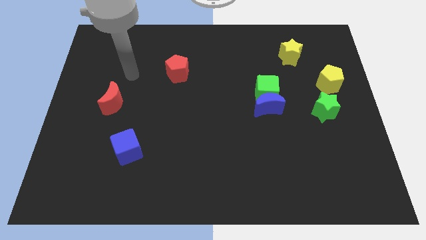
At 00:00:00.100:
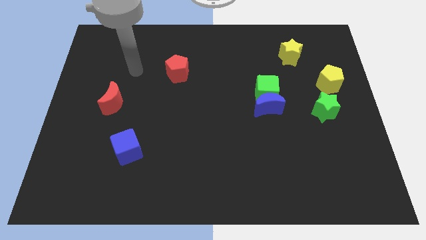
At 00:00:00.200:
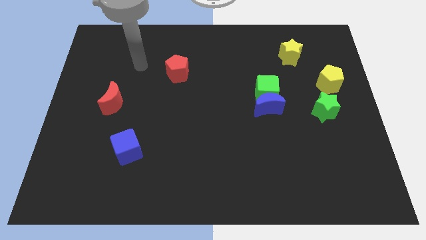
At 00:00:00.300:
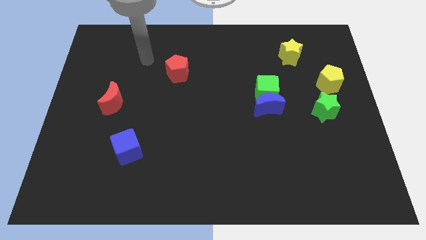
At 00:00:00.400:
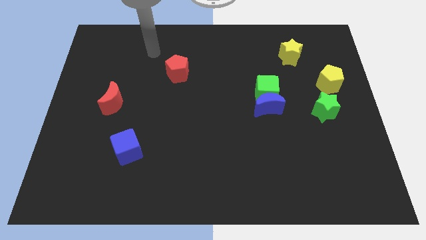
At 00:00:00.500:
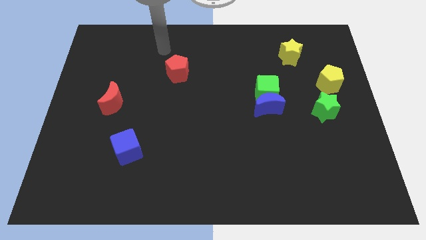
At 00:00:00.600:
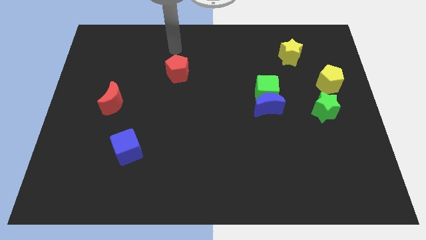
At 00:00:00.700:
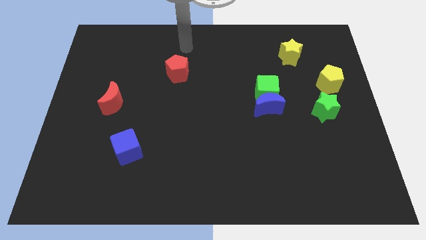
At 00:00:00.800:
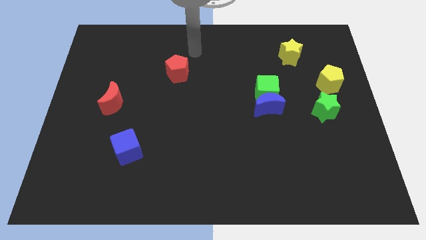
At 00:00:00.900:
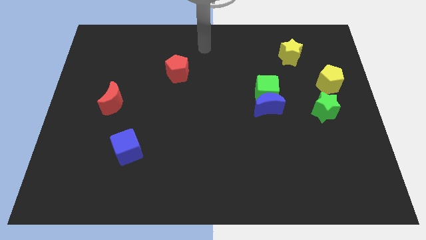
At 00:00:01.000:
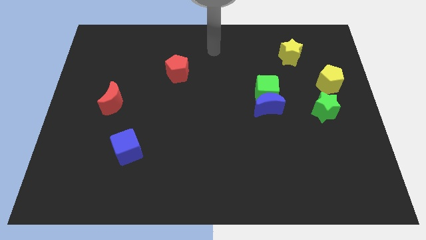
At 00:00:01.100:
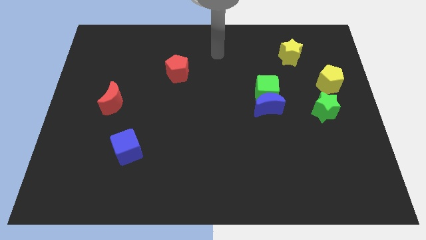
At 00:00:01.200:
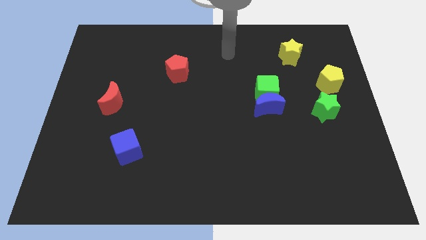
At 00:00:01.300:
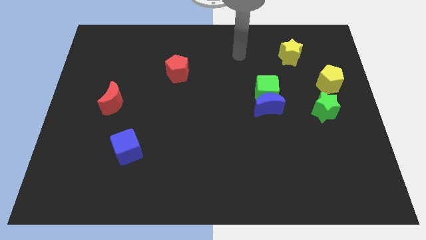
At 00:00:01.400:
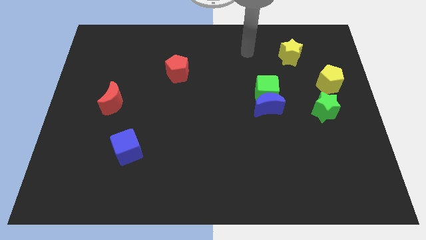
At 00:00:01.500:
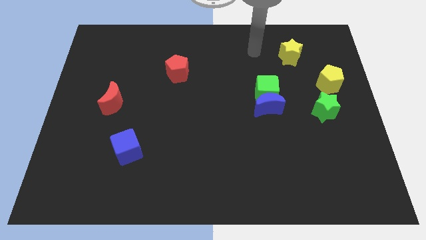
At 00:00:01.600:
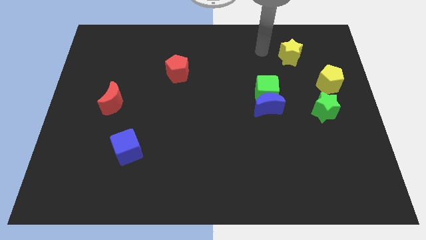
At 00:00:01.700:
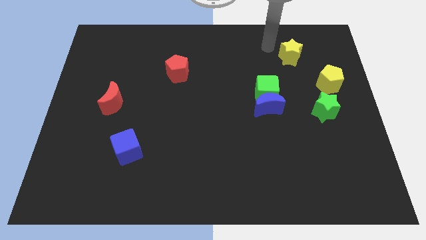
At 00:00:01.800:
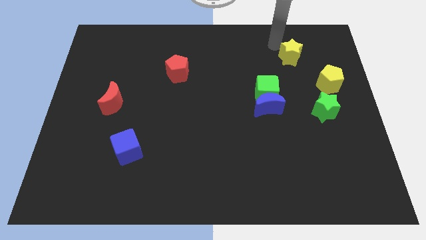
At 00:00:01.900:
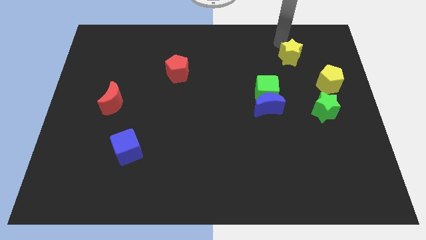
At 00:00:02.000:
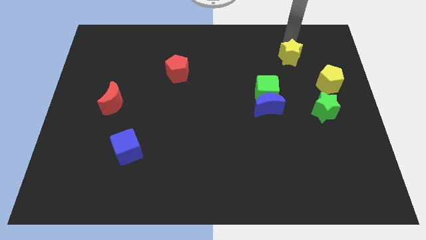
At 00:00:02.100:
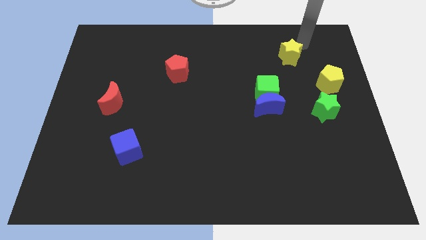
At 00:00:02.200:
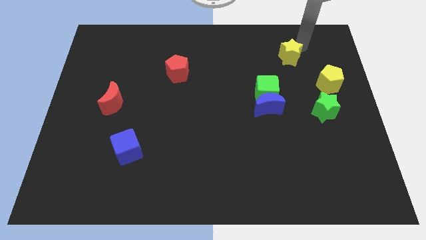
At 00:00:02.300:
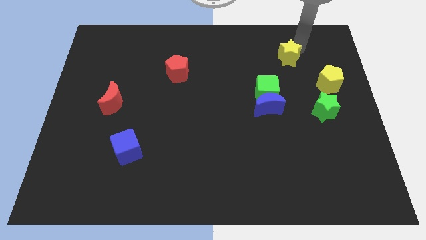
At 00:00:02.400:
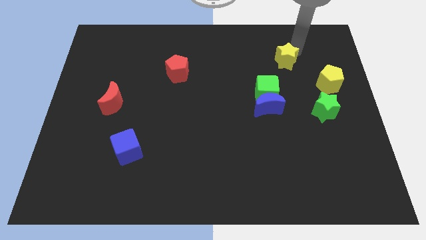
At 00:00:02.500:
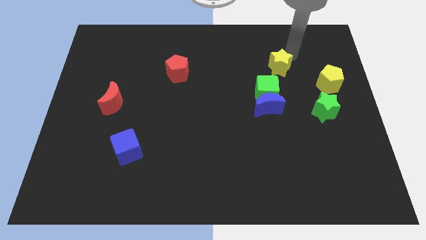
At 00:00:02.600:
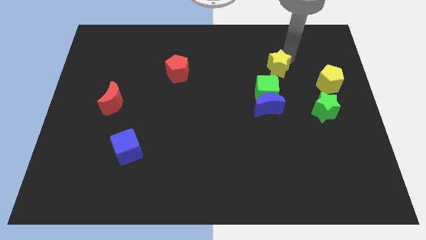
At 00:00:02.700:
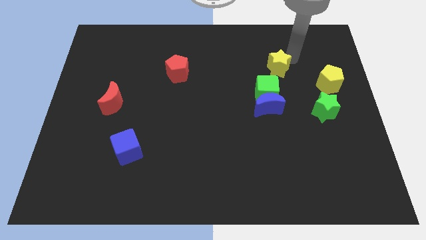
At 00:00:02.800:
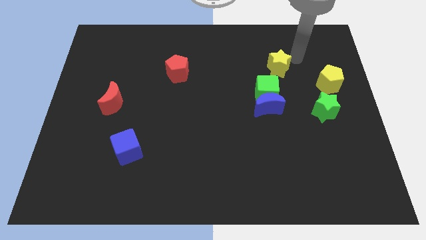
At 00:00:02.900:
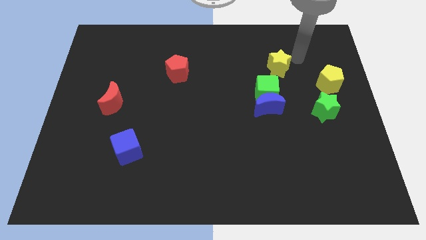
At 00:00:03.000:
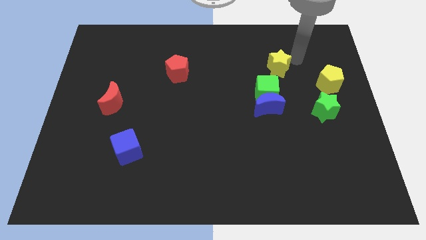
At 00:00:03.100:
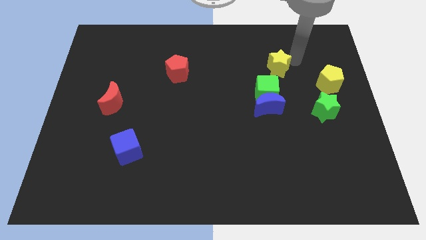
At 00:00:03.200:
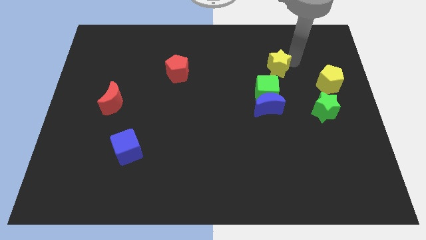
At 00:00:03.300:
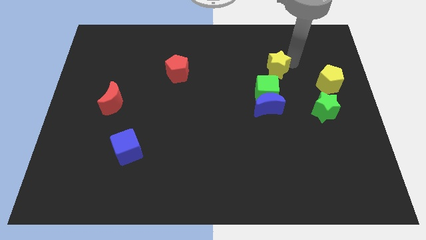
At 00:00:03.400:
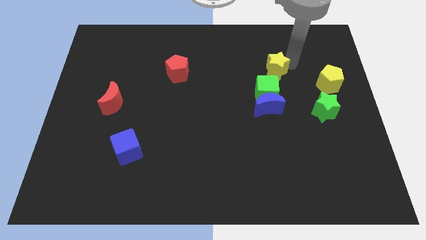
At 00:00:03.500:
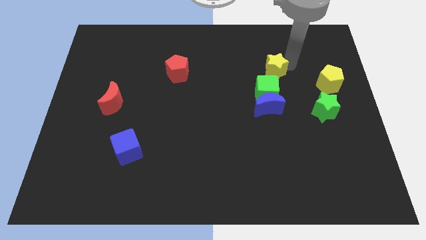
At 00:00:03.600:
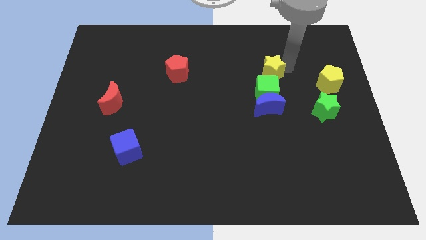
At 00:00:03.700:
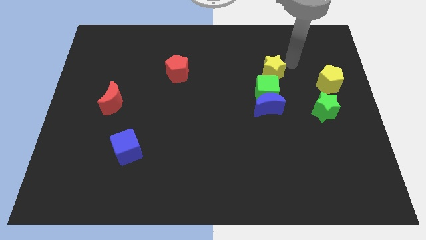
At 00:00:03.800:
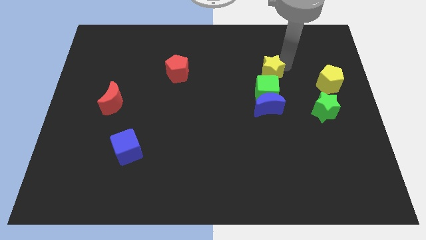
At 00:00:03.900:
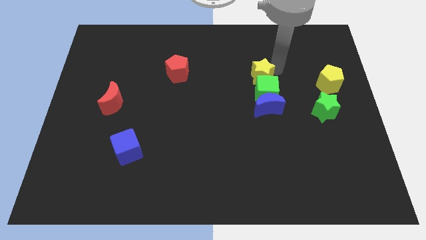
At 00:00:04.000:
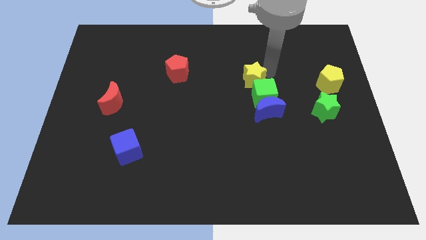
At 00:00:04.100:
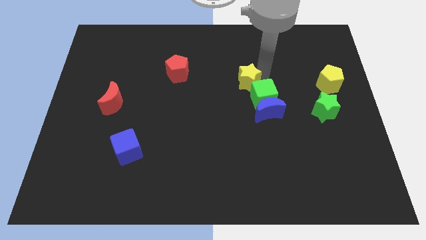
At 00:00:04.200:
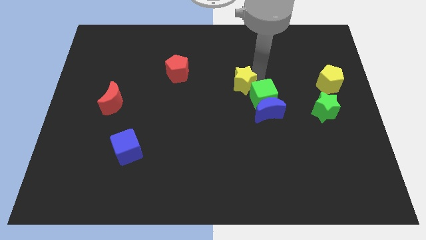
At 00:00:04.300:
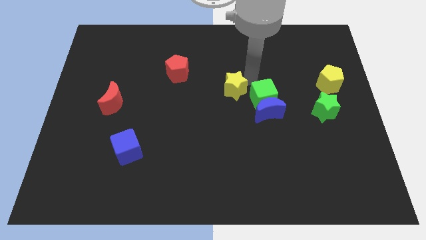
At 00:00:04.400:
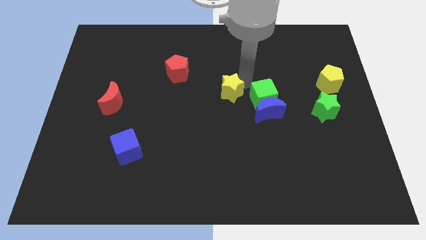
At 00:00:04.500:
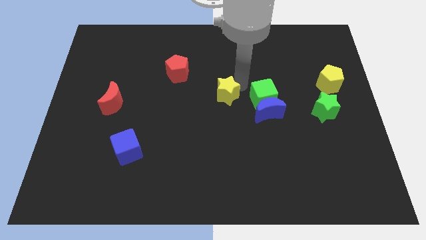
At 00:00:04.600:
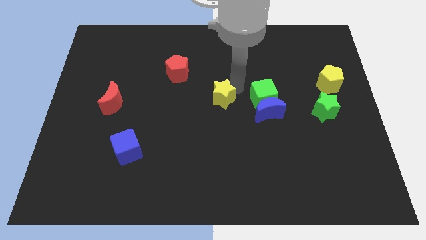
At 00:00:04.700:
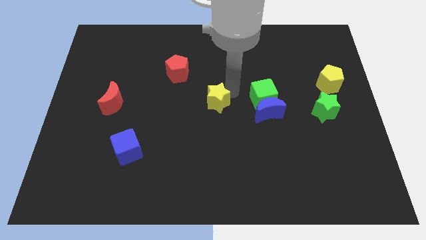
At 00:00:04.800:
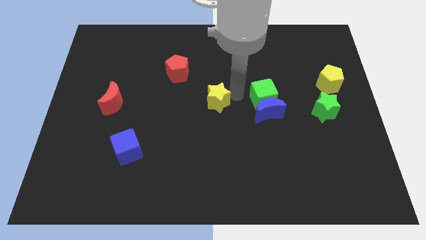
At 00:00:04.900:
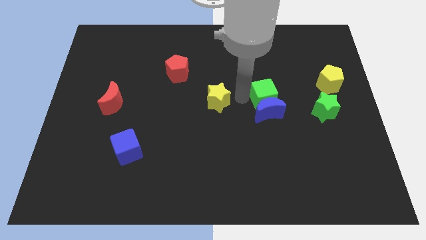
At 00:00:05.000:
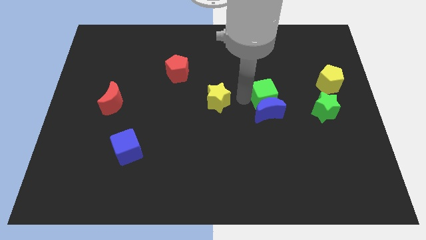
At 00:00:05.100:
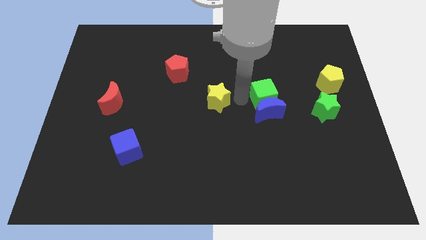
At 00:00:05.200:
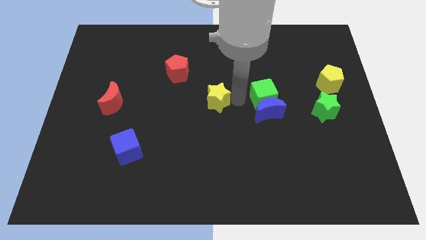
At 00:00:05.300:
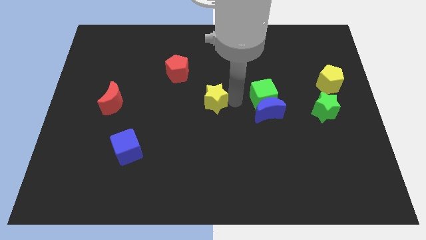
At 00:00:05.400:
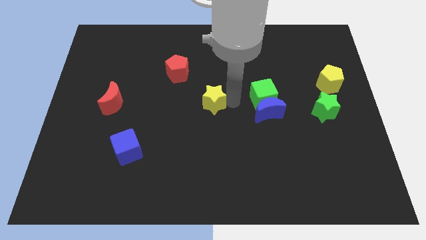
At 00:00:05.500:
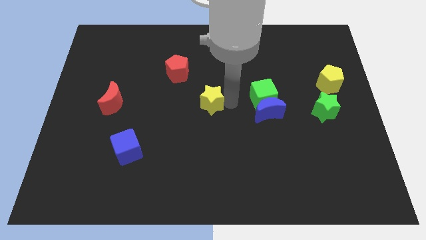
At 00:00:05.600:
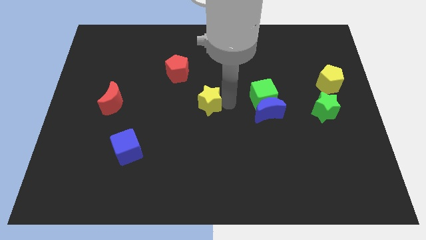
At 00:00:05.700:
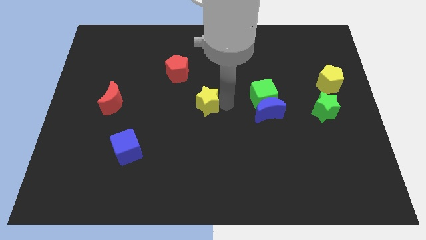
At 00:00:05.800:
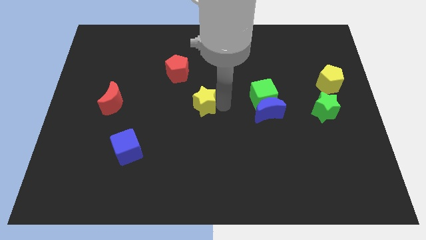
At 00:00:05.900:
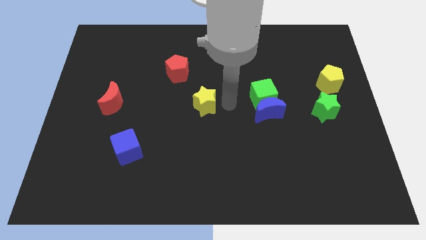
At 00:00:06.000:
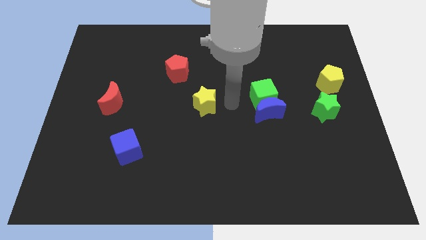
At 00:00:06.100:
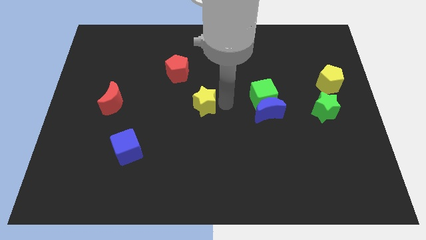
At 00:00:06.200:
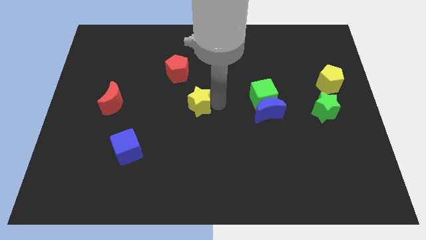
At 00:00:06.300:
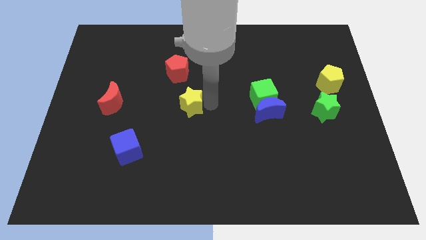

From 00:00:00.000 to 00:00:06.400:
move the yellow star below the red pentagon
